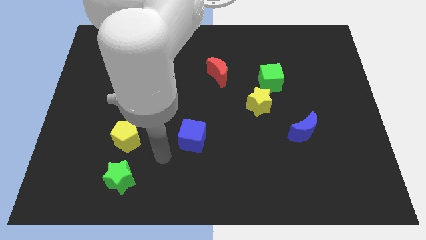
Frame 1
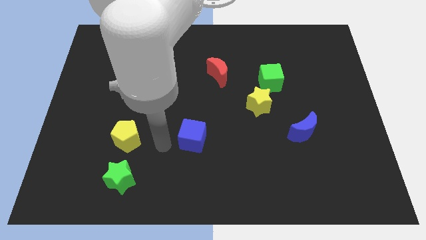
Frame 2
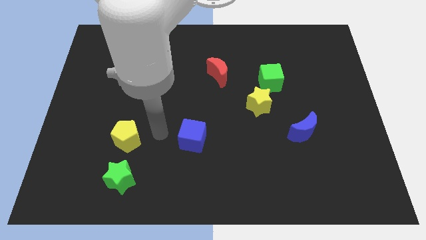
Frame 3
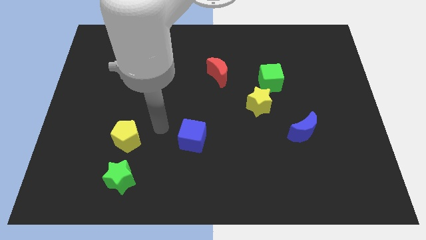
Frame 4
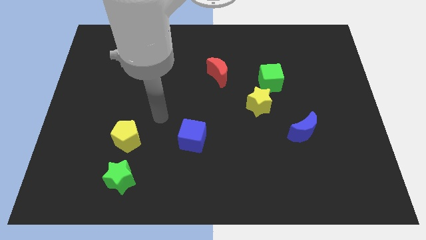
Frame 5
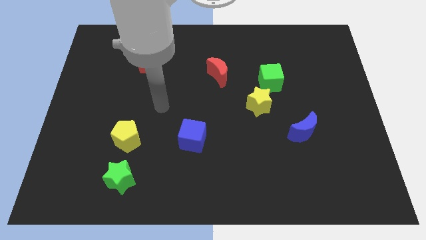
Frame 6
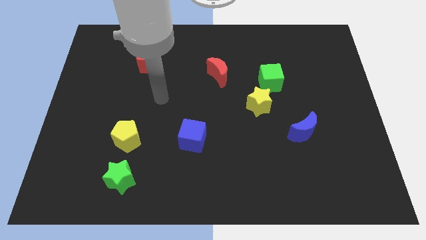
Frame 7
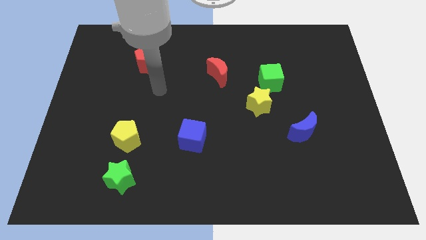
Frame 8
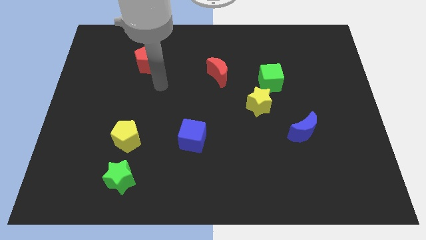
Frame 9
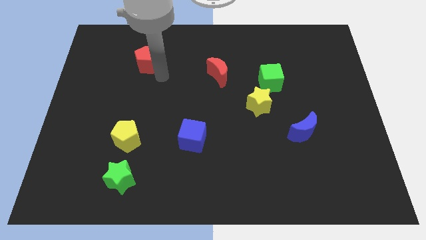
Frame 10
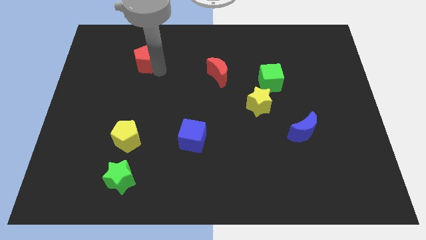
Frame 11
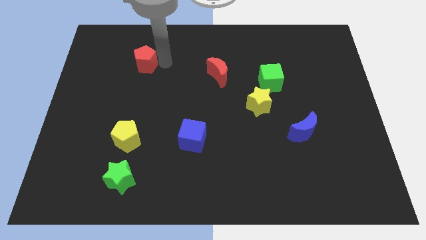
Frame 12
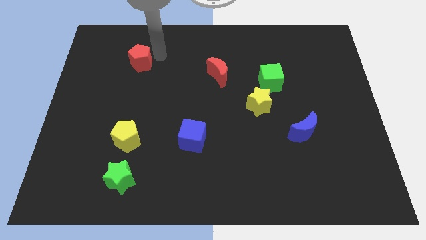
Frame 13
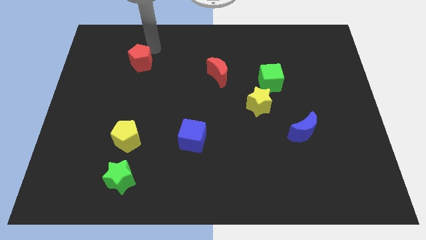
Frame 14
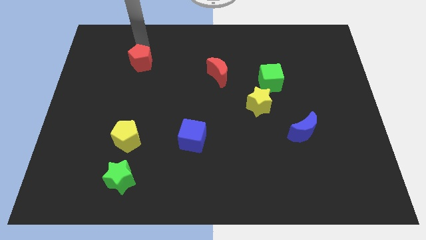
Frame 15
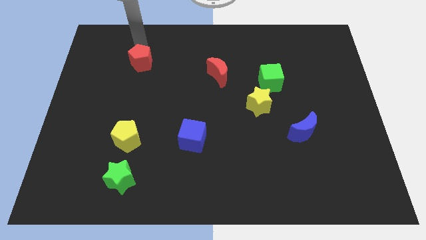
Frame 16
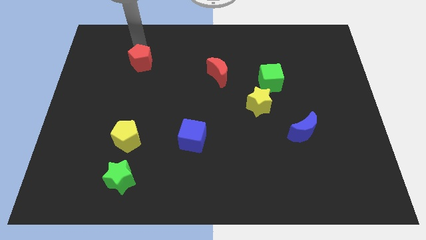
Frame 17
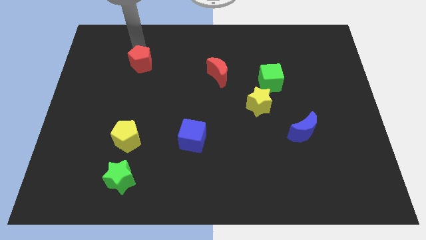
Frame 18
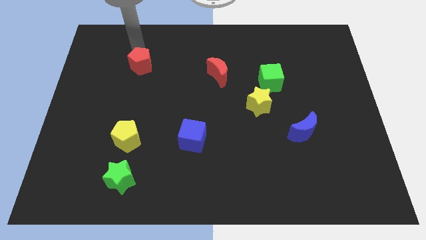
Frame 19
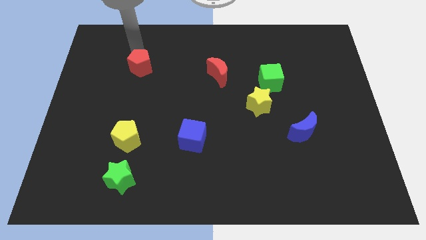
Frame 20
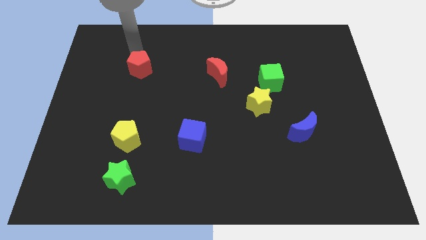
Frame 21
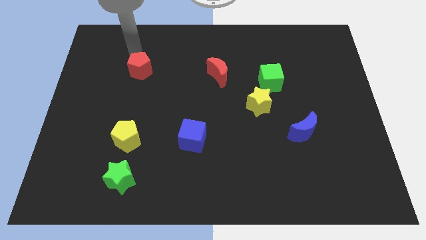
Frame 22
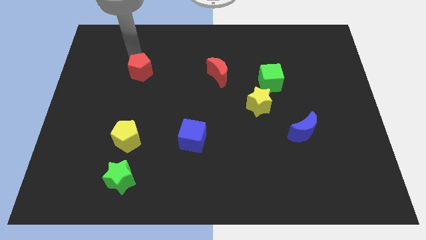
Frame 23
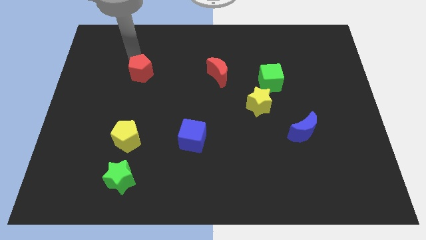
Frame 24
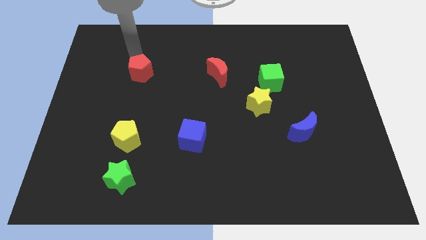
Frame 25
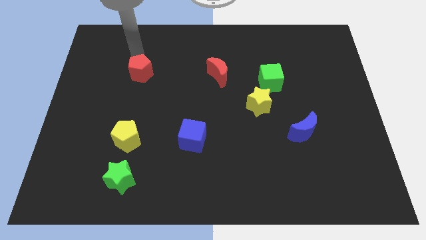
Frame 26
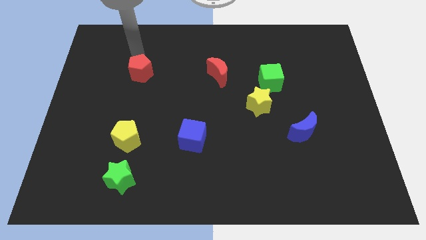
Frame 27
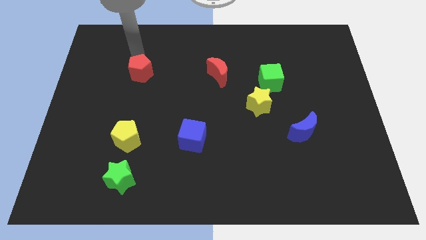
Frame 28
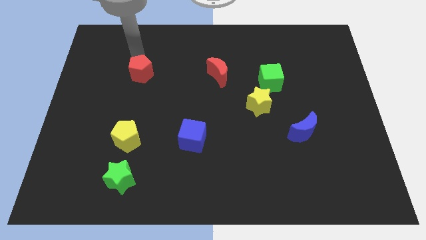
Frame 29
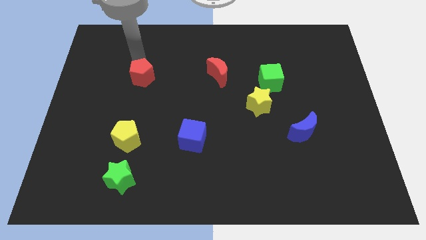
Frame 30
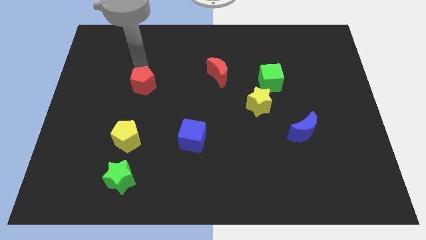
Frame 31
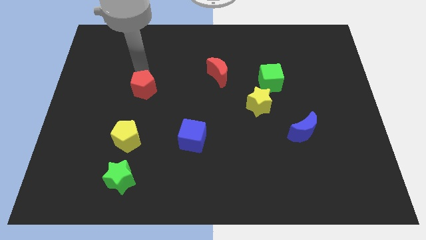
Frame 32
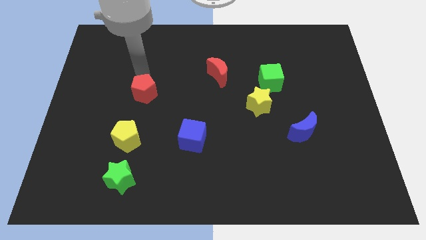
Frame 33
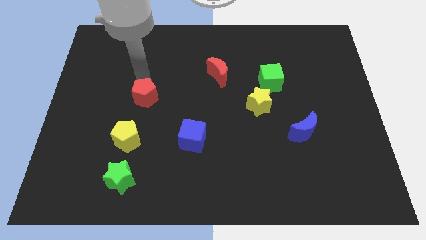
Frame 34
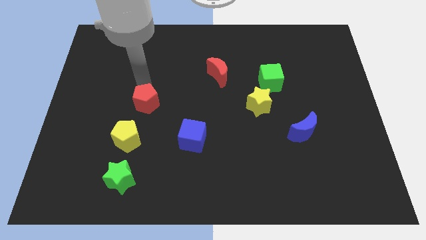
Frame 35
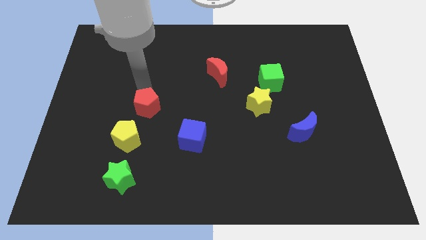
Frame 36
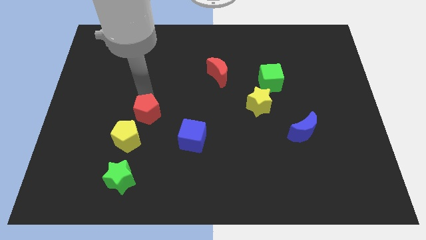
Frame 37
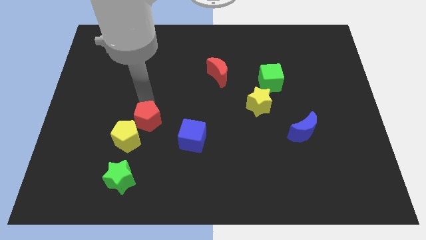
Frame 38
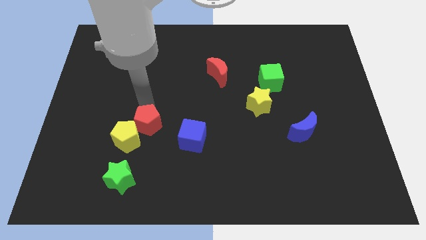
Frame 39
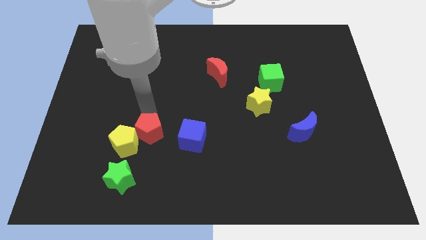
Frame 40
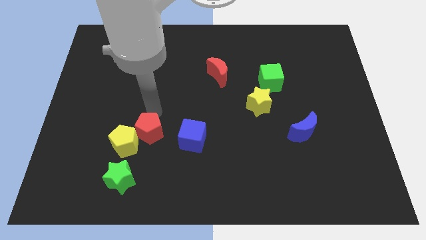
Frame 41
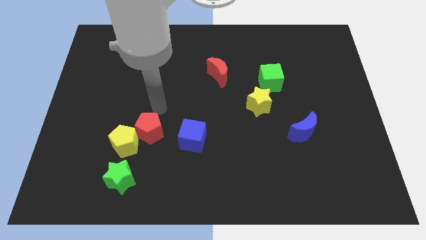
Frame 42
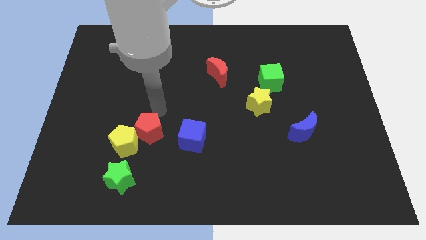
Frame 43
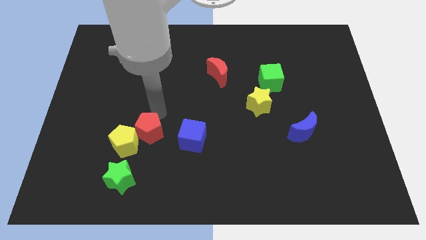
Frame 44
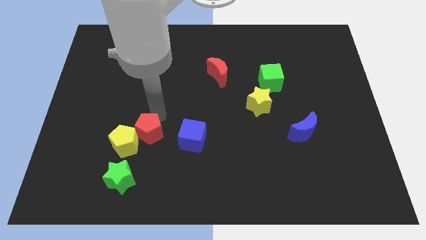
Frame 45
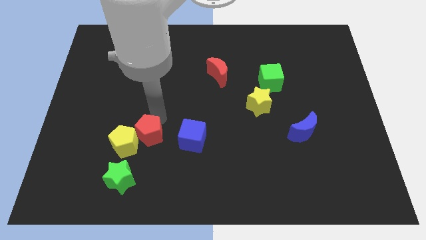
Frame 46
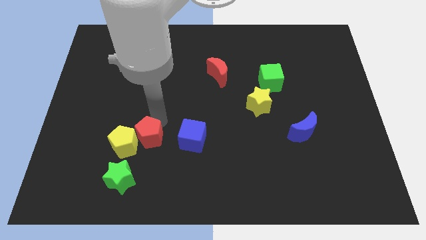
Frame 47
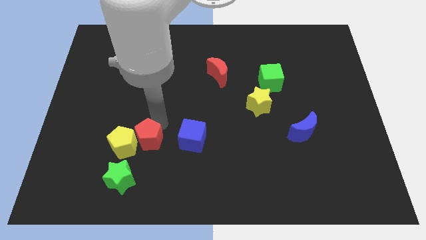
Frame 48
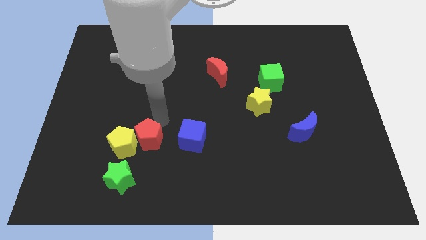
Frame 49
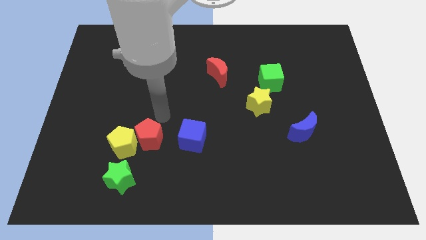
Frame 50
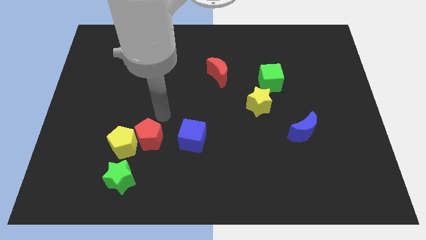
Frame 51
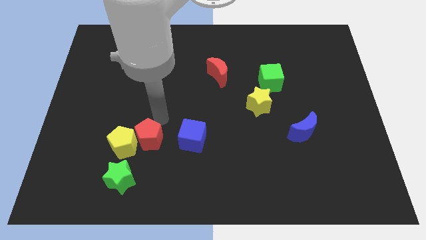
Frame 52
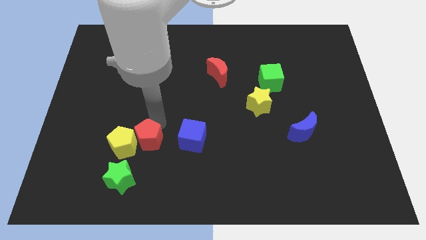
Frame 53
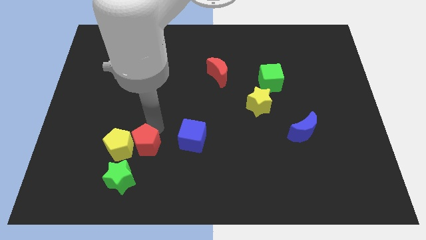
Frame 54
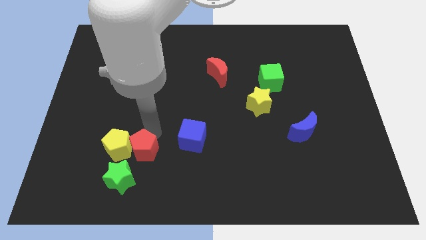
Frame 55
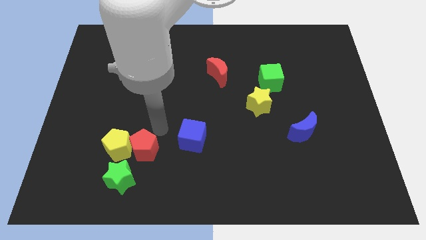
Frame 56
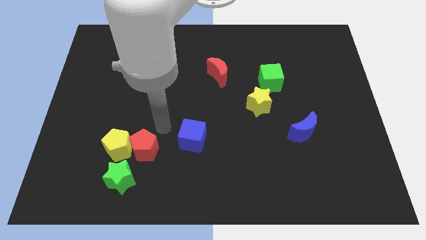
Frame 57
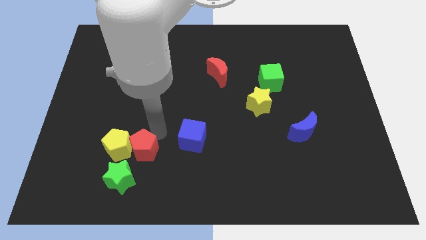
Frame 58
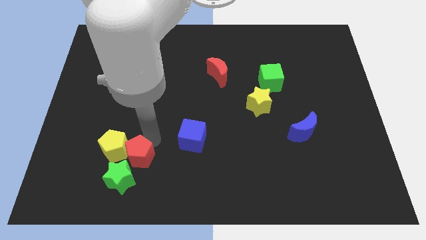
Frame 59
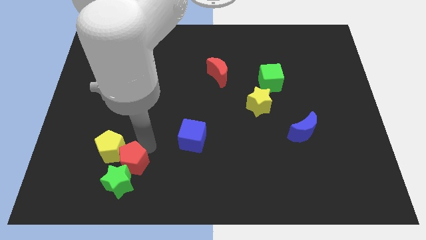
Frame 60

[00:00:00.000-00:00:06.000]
push the red pentagon towards the green star
